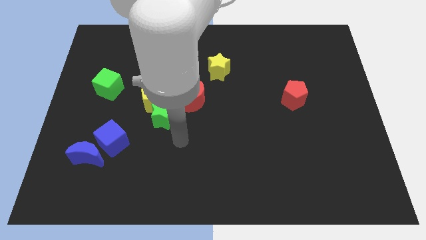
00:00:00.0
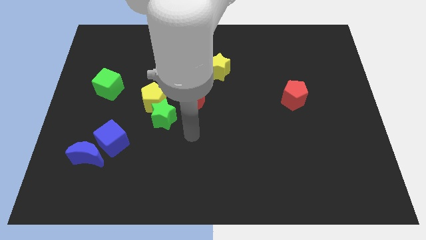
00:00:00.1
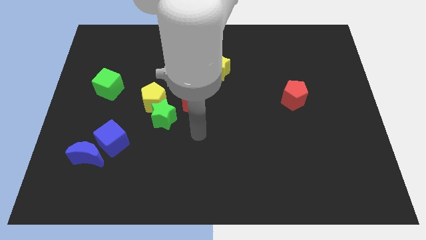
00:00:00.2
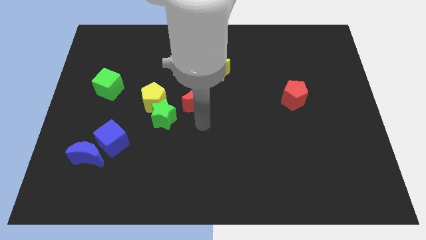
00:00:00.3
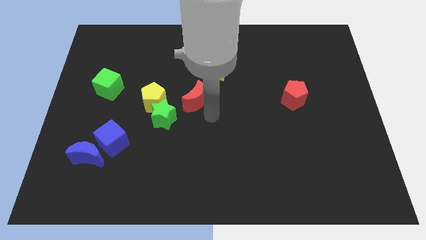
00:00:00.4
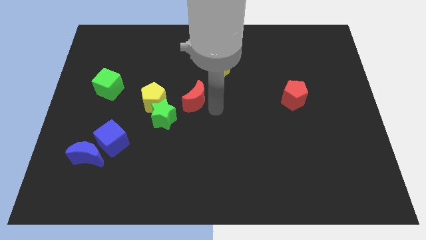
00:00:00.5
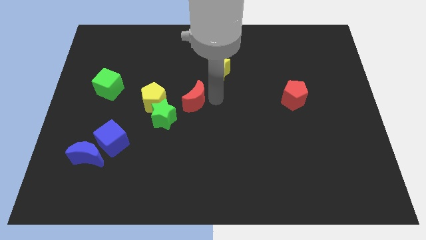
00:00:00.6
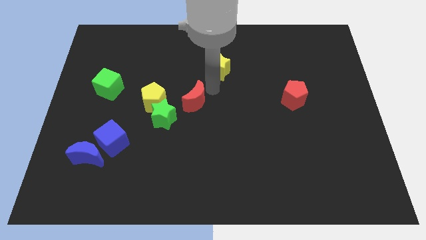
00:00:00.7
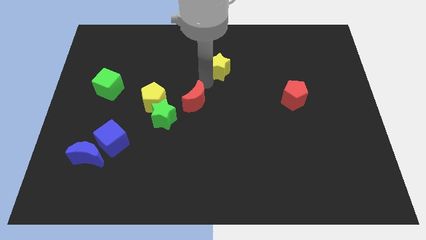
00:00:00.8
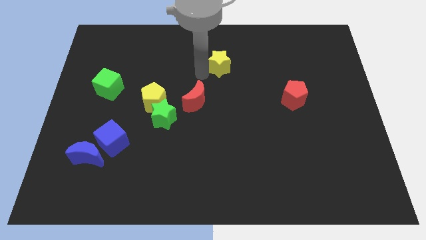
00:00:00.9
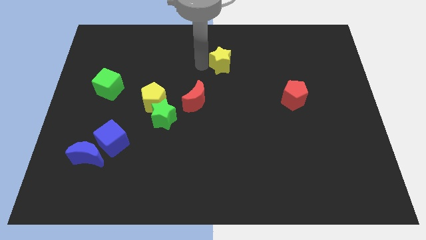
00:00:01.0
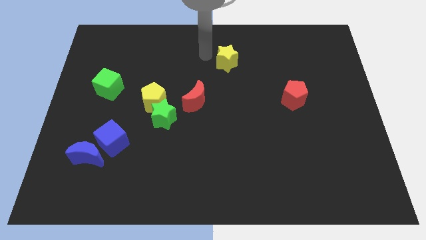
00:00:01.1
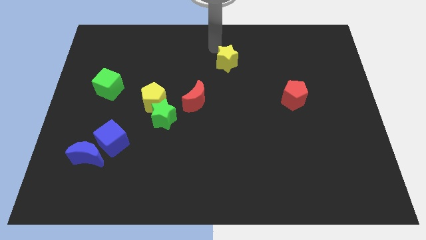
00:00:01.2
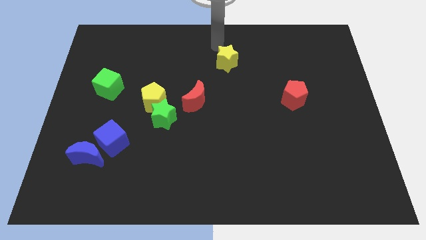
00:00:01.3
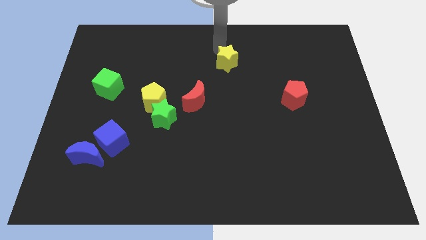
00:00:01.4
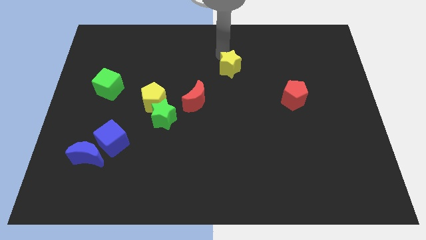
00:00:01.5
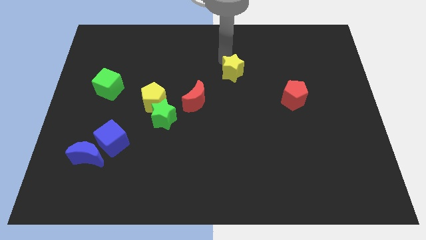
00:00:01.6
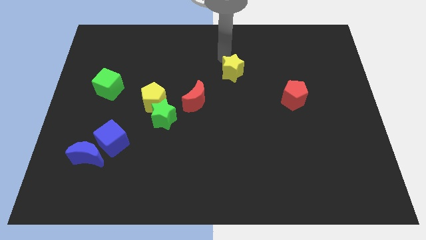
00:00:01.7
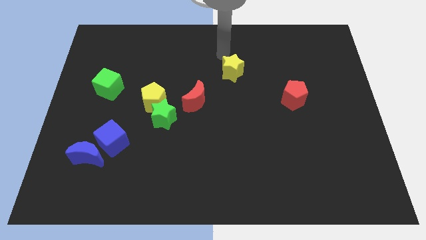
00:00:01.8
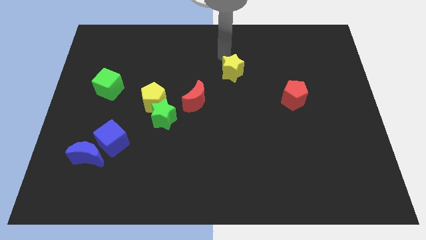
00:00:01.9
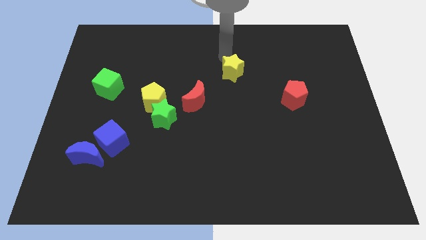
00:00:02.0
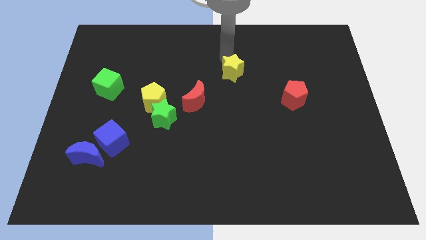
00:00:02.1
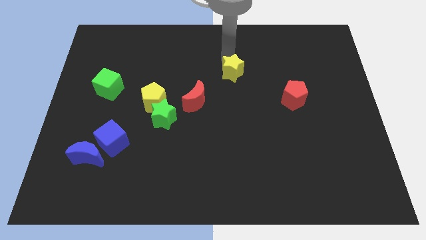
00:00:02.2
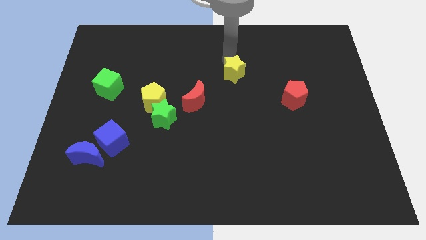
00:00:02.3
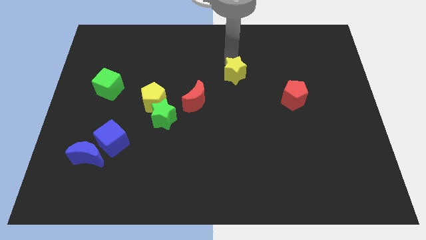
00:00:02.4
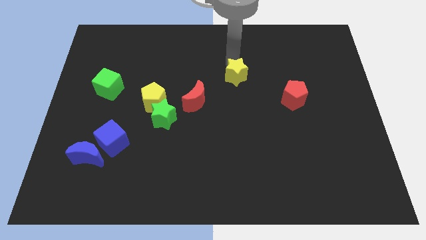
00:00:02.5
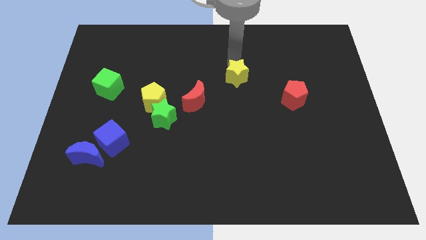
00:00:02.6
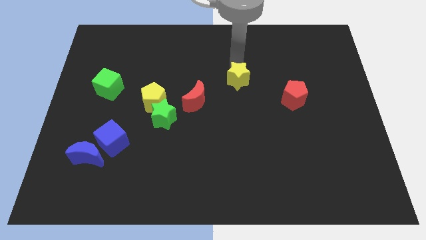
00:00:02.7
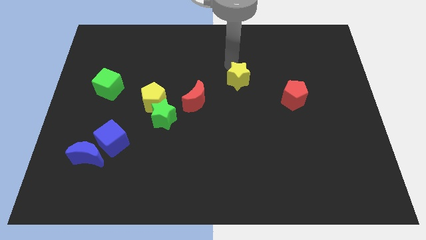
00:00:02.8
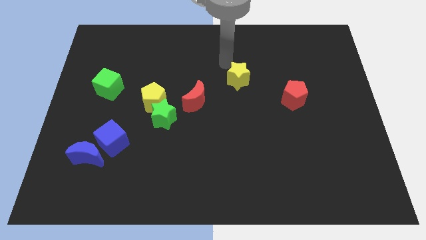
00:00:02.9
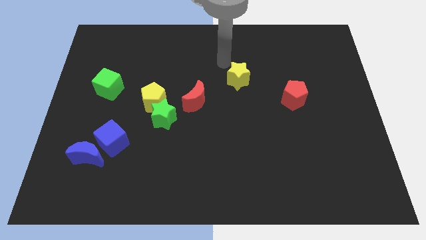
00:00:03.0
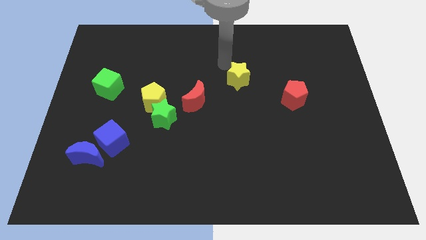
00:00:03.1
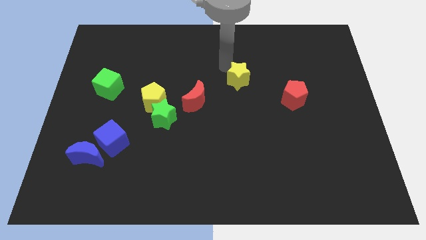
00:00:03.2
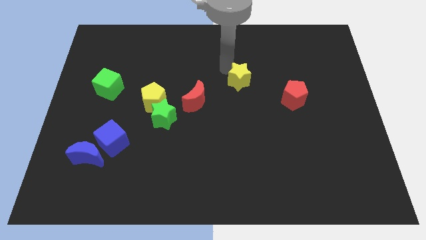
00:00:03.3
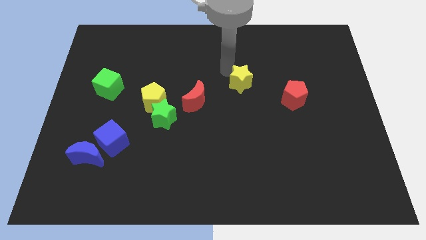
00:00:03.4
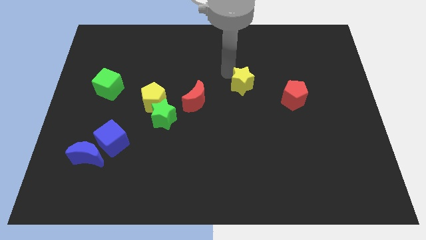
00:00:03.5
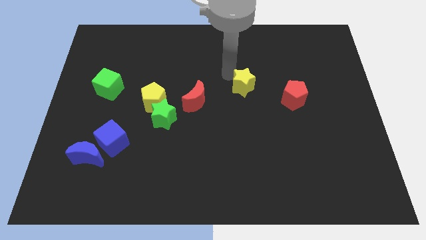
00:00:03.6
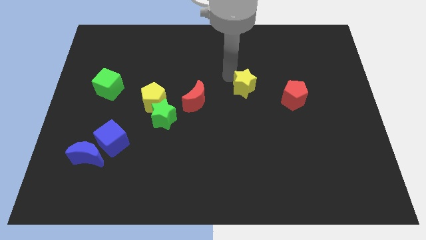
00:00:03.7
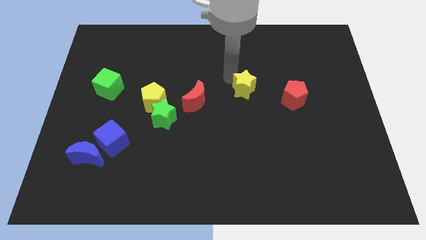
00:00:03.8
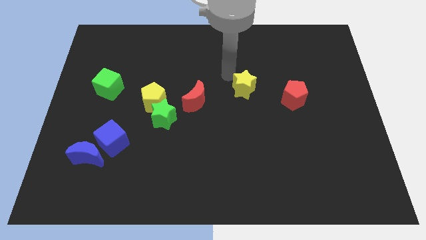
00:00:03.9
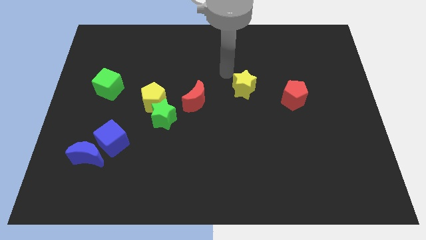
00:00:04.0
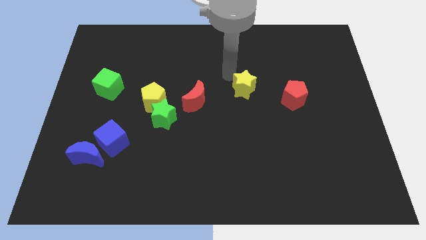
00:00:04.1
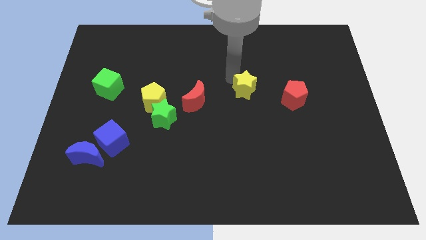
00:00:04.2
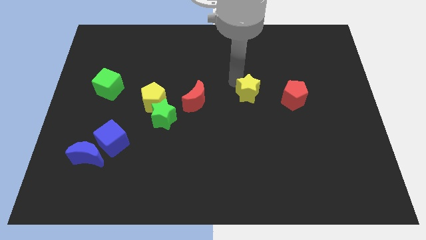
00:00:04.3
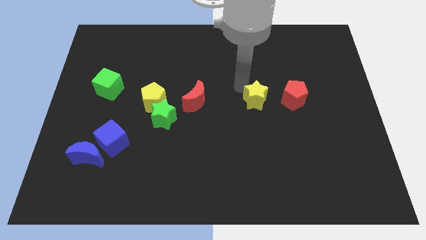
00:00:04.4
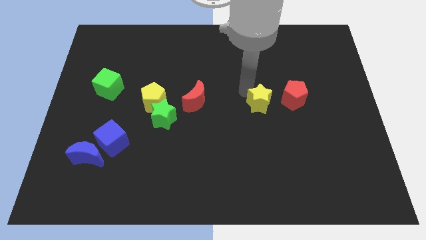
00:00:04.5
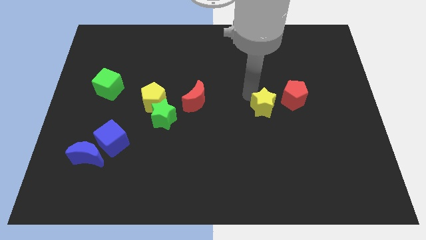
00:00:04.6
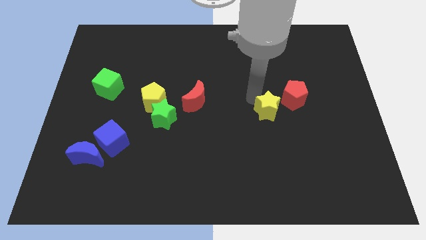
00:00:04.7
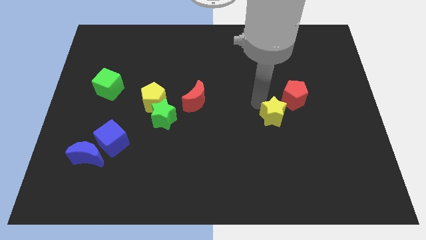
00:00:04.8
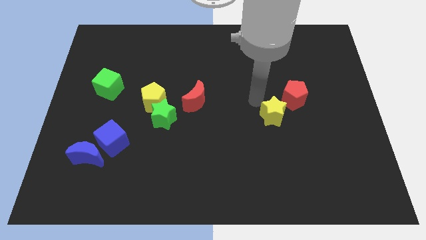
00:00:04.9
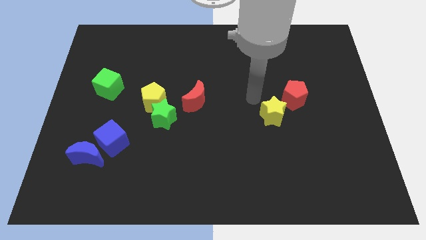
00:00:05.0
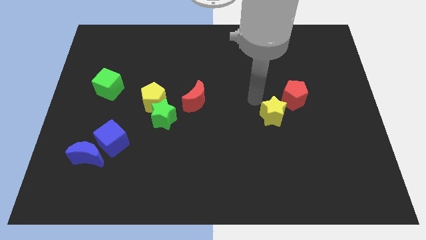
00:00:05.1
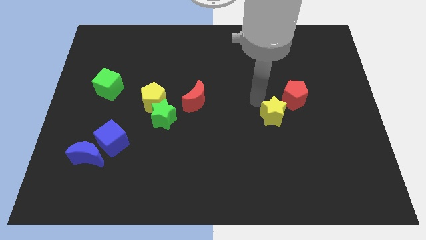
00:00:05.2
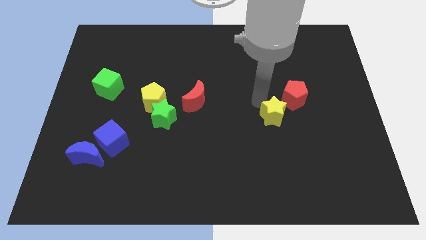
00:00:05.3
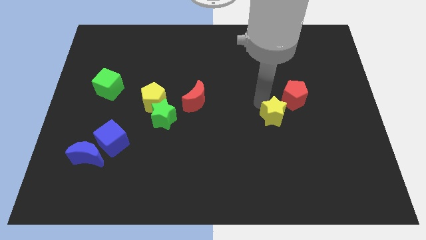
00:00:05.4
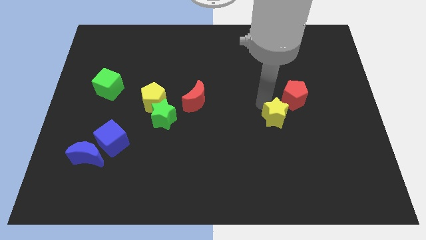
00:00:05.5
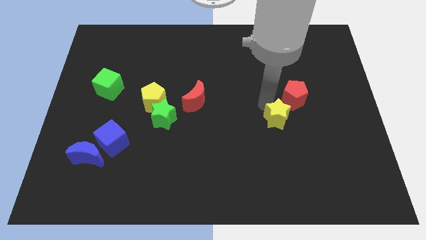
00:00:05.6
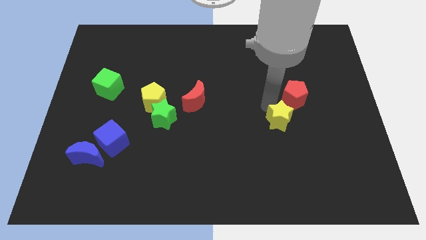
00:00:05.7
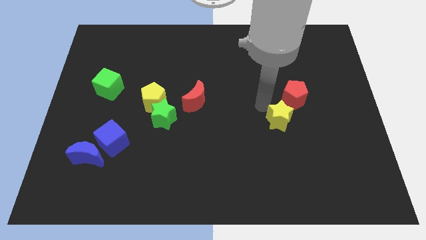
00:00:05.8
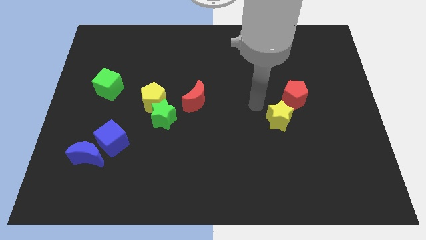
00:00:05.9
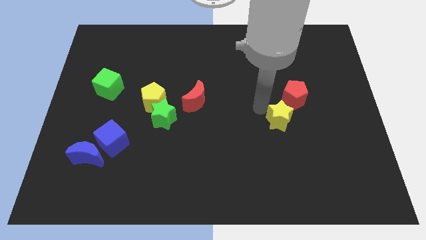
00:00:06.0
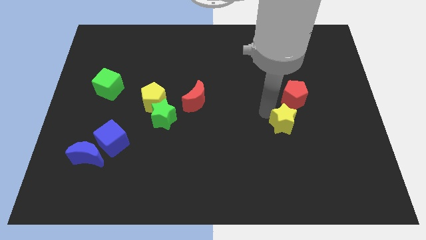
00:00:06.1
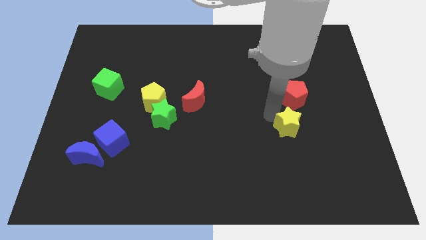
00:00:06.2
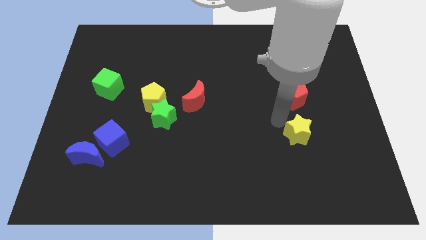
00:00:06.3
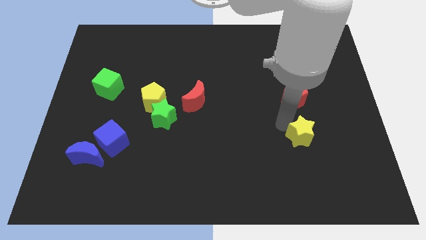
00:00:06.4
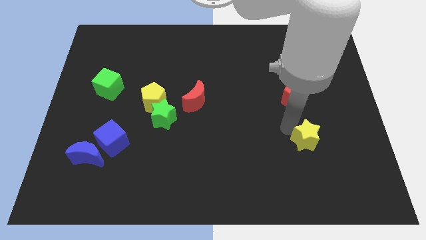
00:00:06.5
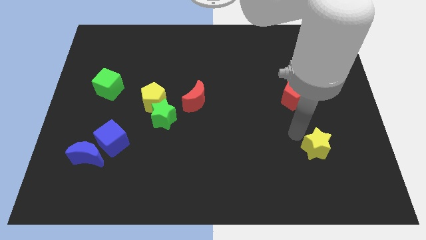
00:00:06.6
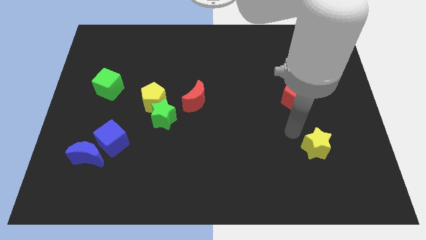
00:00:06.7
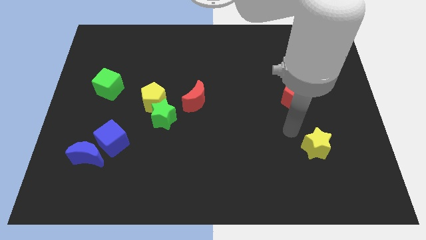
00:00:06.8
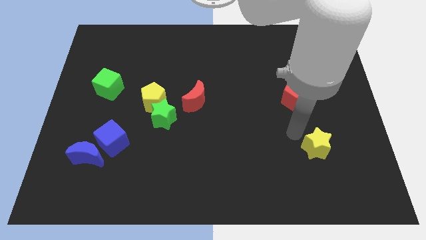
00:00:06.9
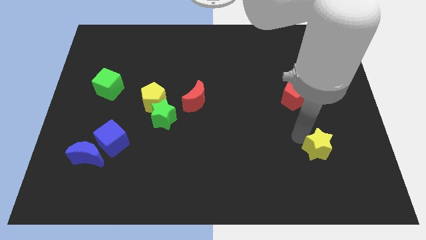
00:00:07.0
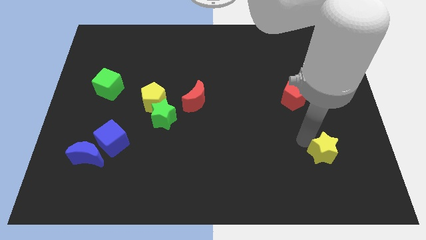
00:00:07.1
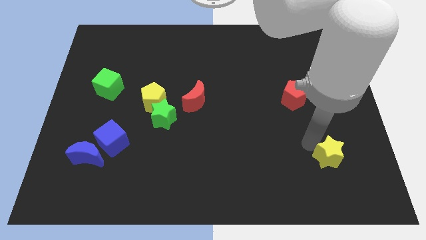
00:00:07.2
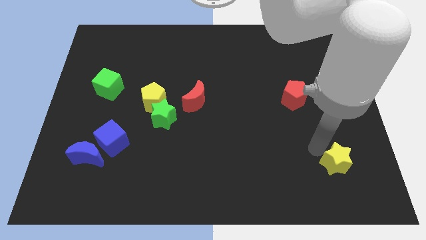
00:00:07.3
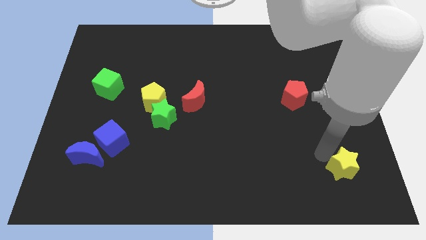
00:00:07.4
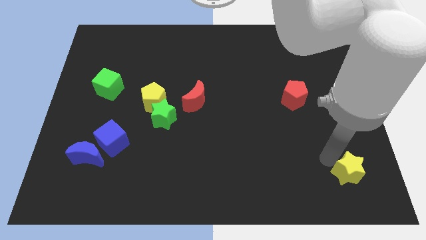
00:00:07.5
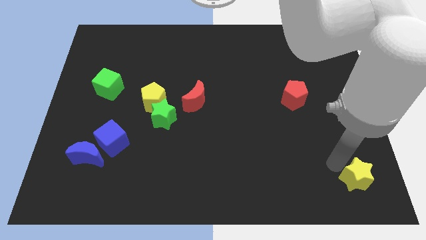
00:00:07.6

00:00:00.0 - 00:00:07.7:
move the yellow star to the bottom right
